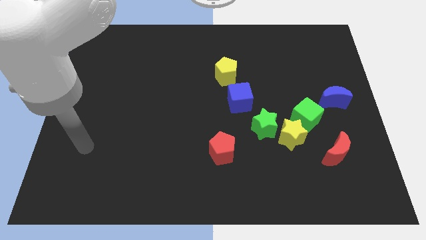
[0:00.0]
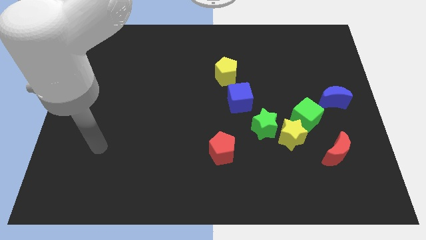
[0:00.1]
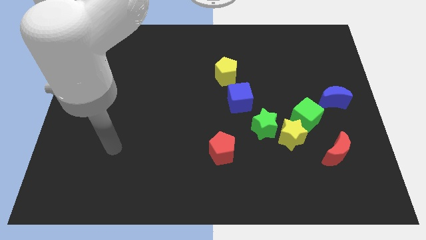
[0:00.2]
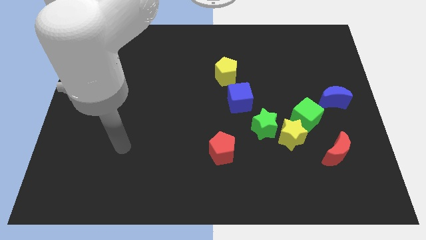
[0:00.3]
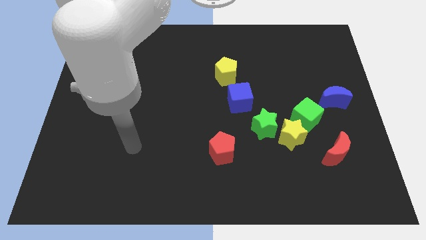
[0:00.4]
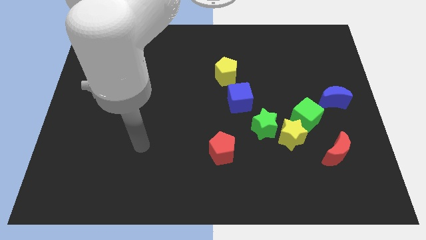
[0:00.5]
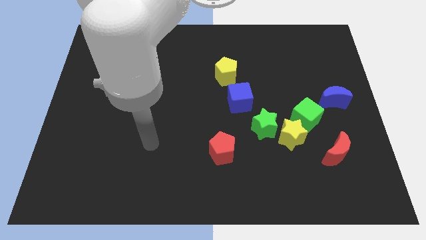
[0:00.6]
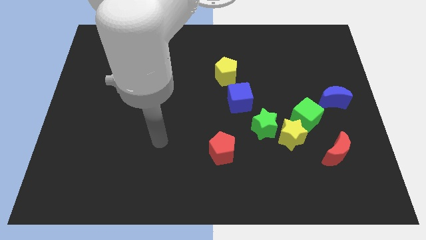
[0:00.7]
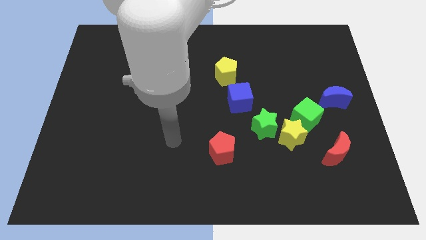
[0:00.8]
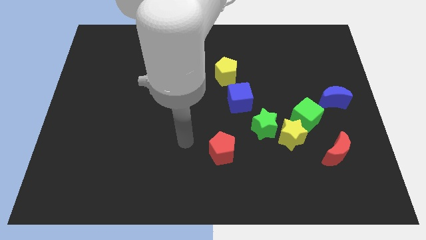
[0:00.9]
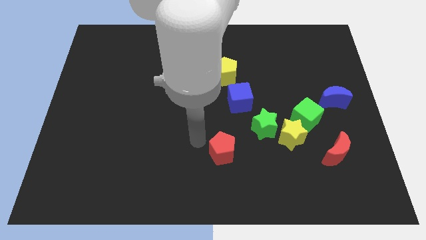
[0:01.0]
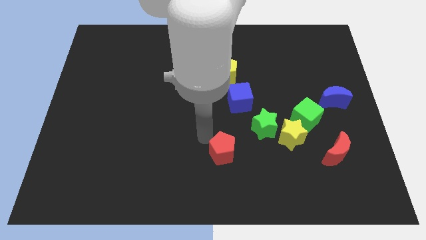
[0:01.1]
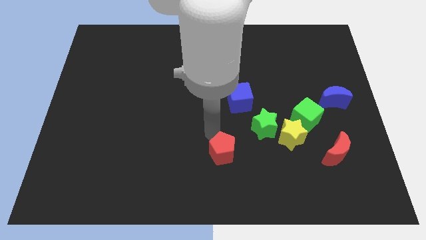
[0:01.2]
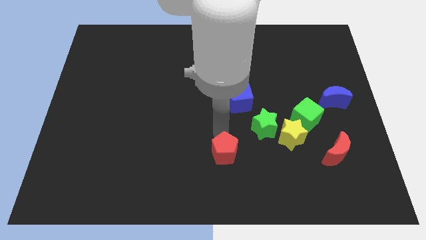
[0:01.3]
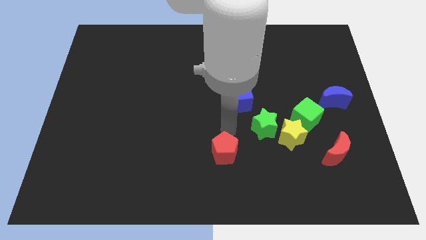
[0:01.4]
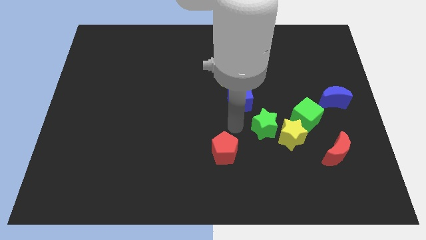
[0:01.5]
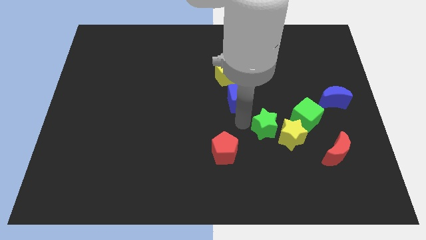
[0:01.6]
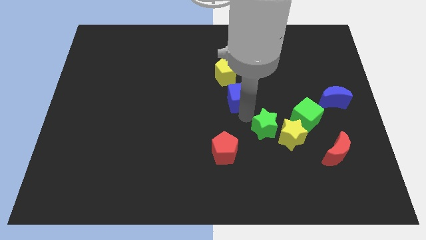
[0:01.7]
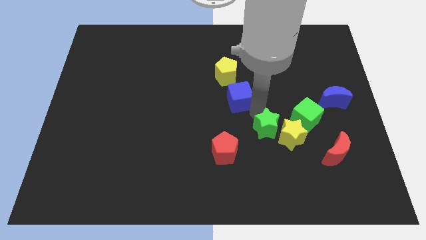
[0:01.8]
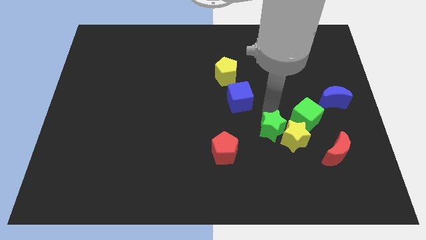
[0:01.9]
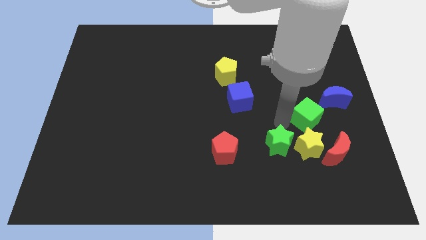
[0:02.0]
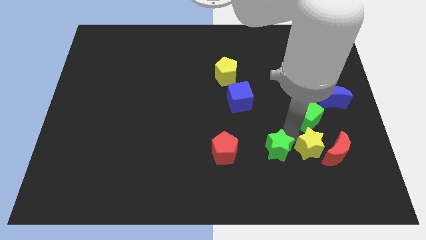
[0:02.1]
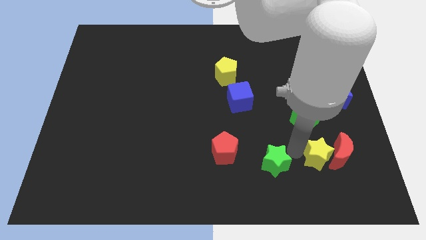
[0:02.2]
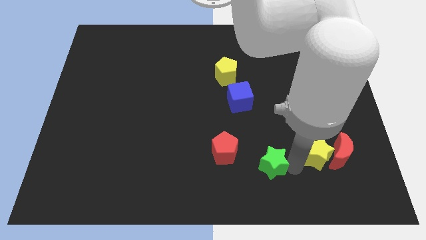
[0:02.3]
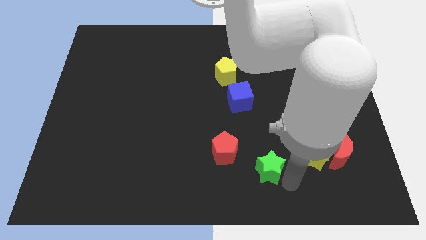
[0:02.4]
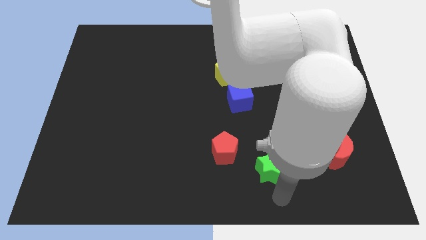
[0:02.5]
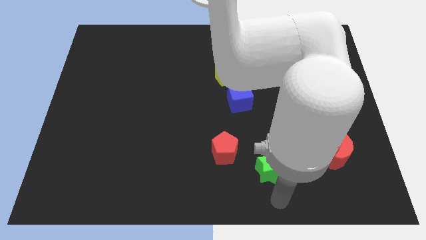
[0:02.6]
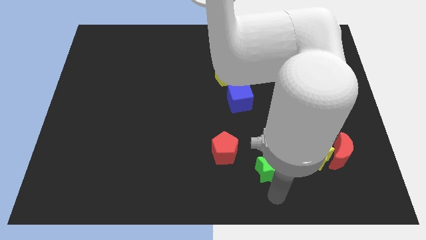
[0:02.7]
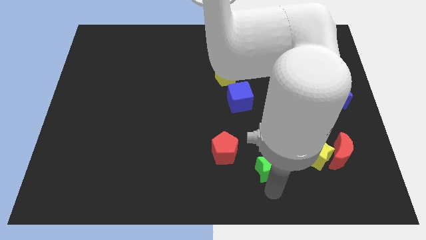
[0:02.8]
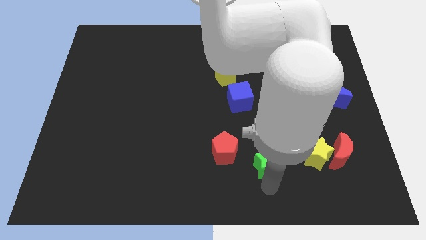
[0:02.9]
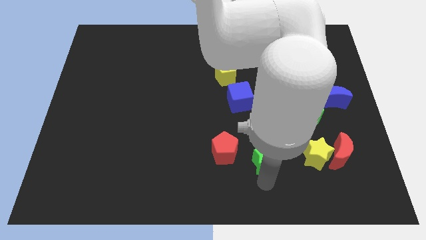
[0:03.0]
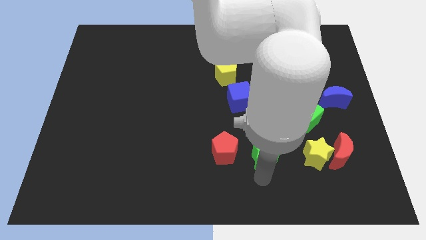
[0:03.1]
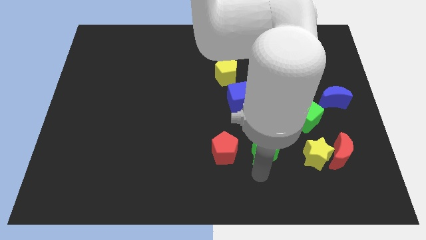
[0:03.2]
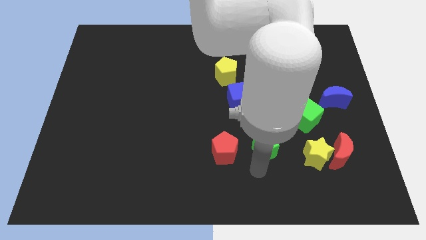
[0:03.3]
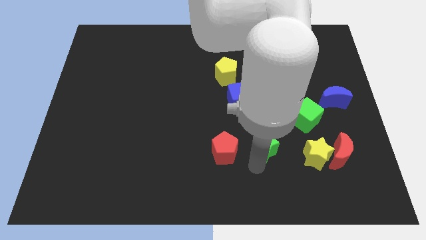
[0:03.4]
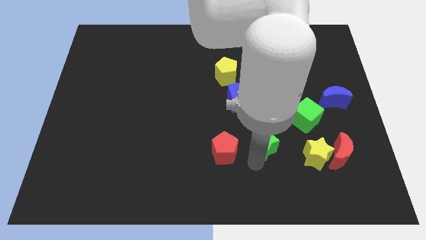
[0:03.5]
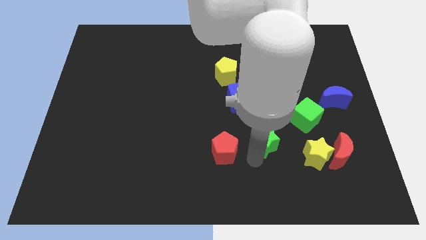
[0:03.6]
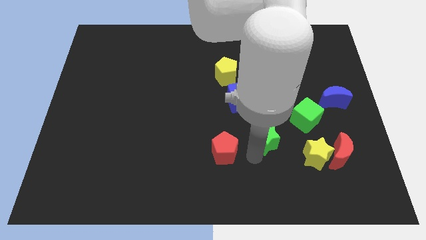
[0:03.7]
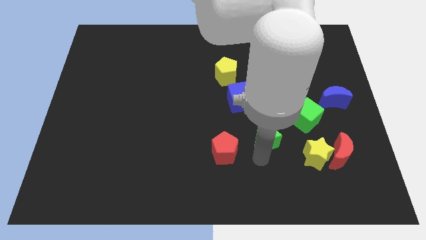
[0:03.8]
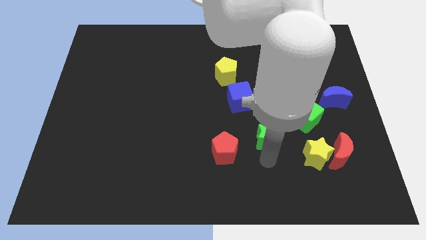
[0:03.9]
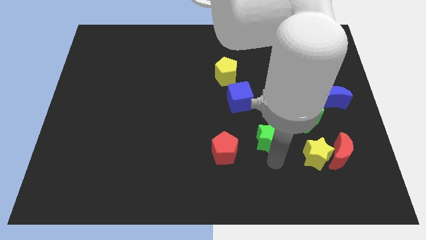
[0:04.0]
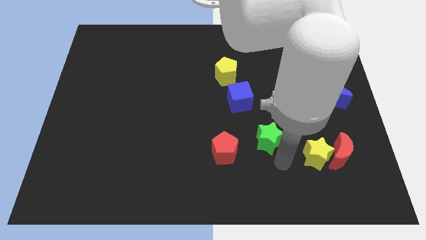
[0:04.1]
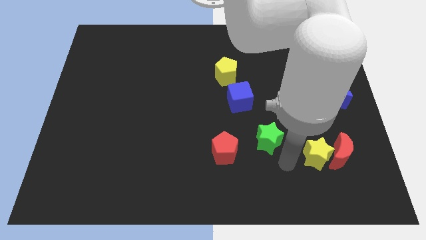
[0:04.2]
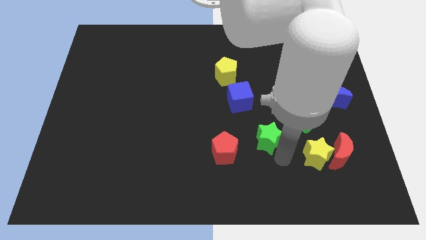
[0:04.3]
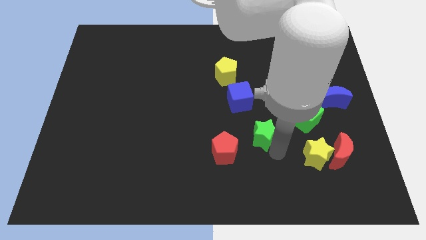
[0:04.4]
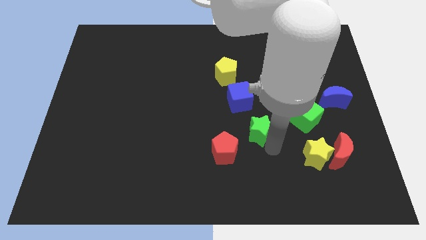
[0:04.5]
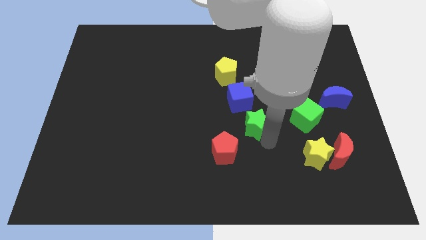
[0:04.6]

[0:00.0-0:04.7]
slide the green star to the center

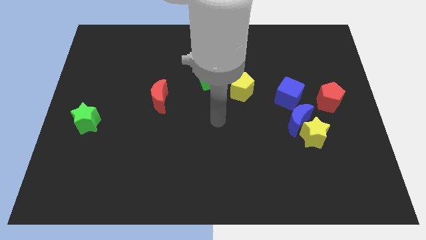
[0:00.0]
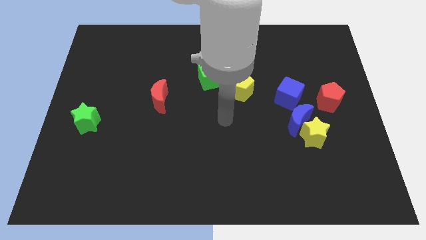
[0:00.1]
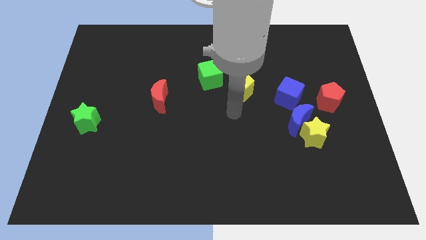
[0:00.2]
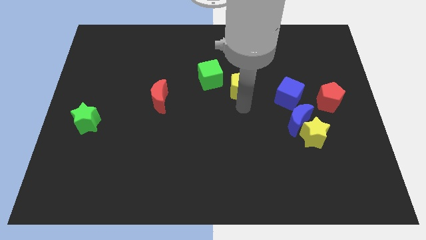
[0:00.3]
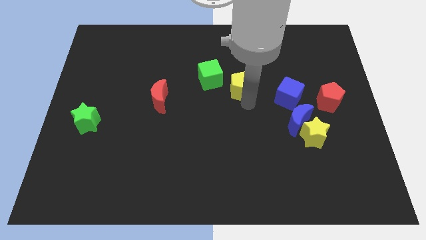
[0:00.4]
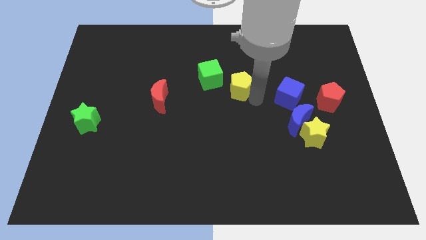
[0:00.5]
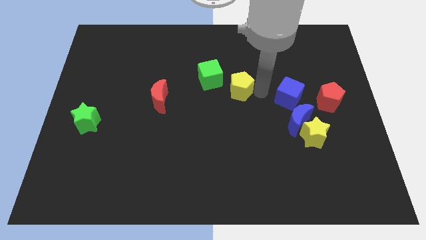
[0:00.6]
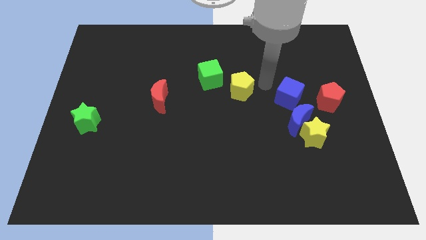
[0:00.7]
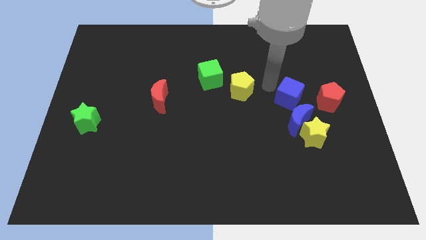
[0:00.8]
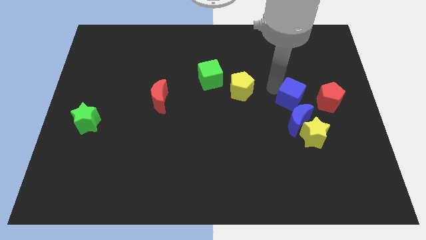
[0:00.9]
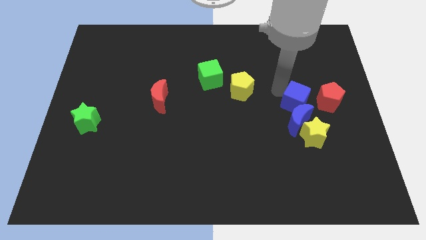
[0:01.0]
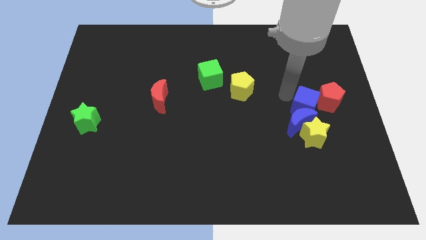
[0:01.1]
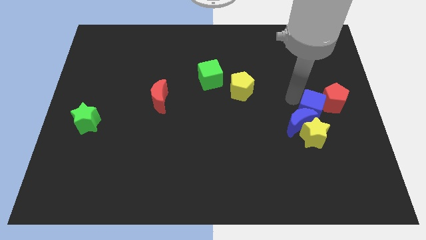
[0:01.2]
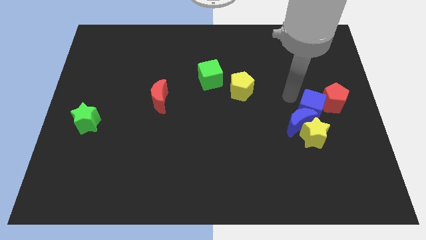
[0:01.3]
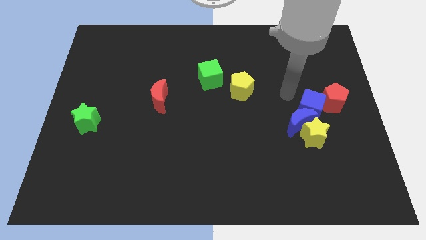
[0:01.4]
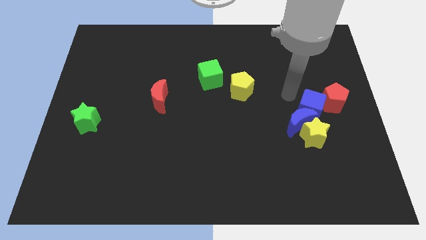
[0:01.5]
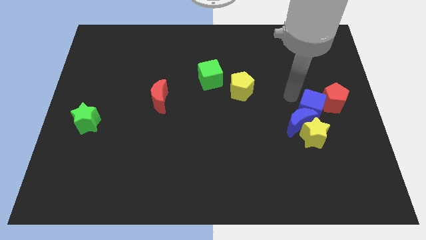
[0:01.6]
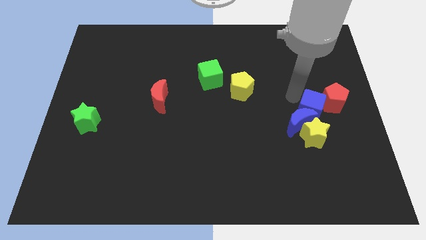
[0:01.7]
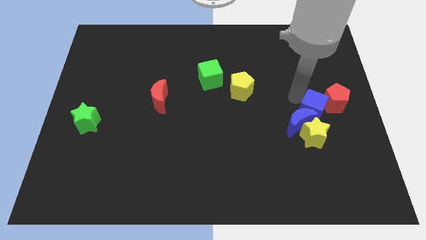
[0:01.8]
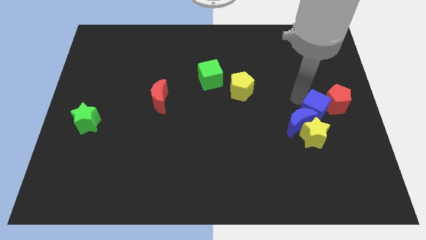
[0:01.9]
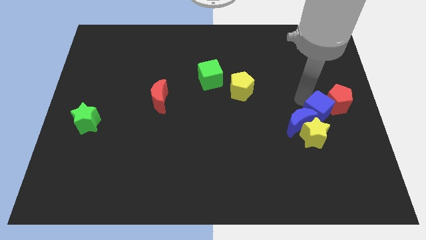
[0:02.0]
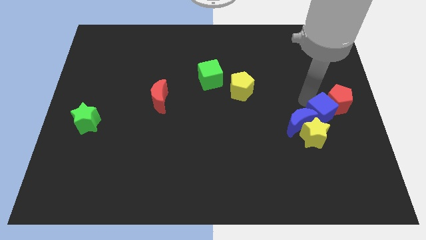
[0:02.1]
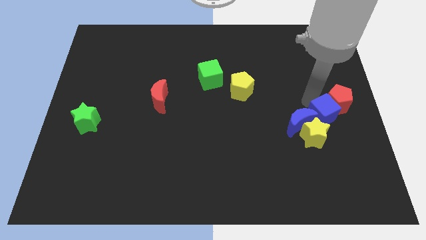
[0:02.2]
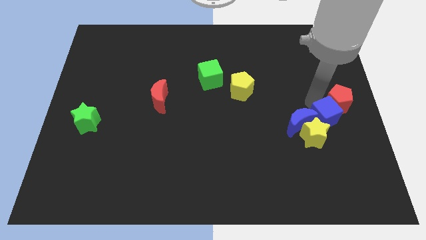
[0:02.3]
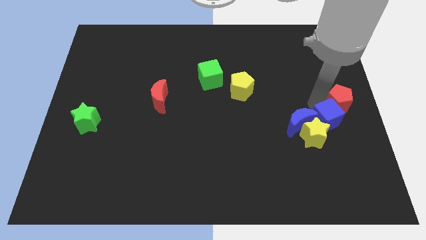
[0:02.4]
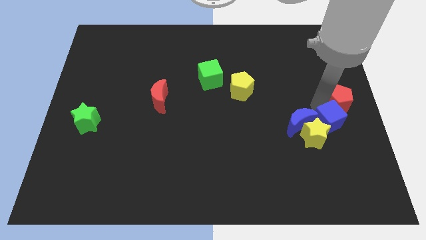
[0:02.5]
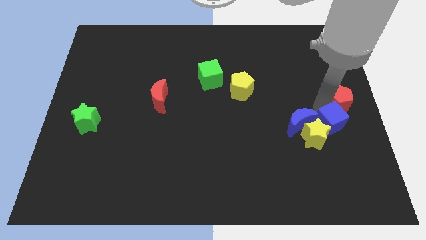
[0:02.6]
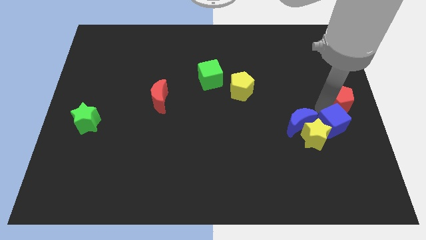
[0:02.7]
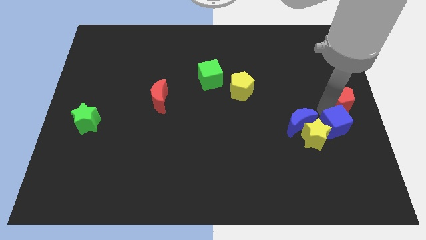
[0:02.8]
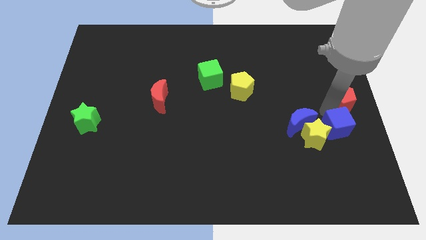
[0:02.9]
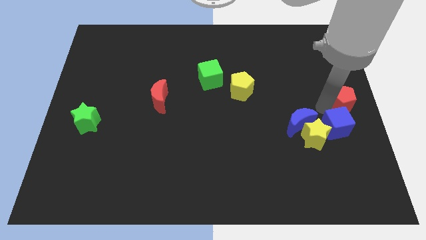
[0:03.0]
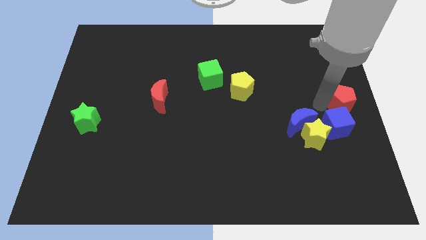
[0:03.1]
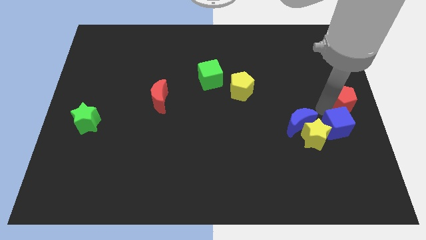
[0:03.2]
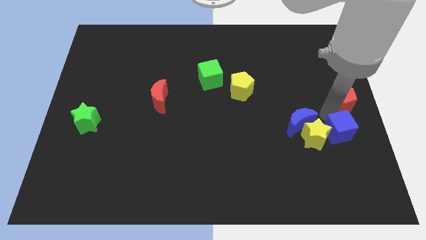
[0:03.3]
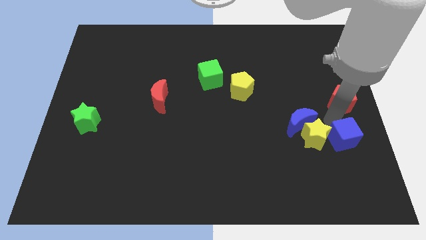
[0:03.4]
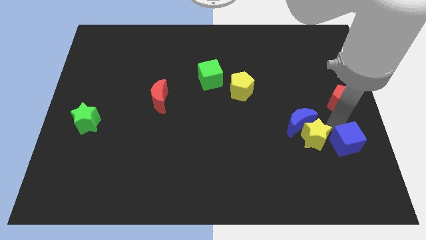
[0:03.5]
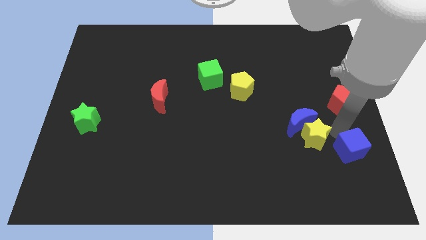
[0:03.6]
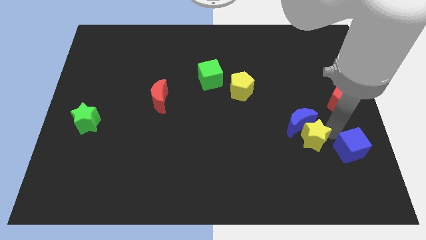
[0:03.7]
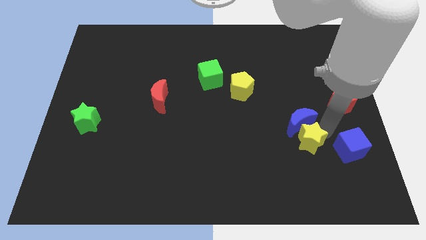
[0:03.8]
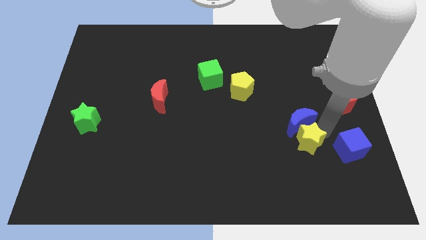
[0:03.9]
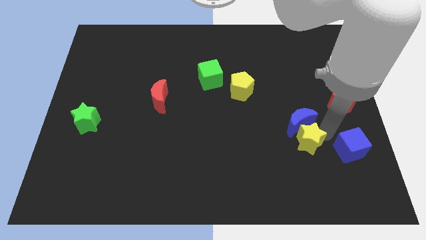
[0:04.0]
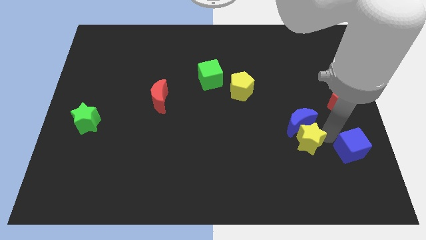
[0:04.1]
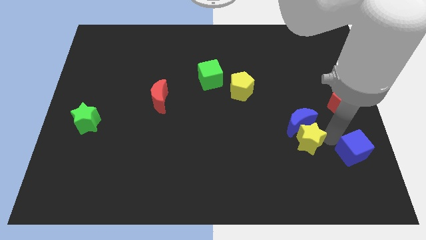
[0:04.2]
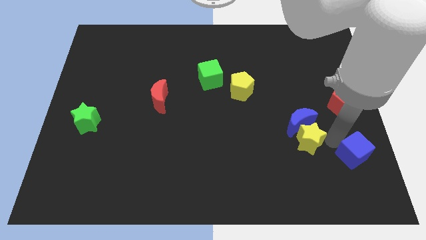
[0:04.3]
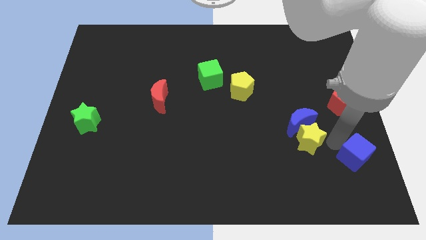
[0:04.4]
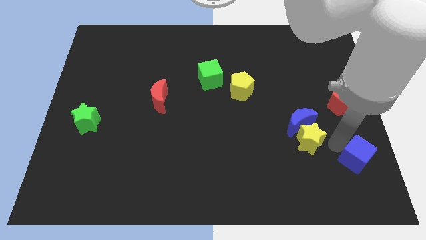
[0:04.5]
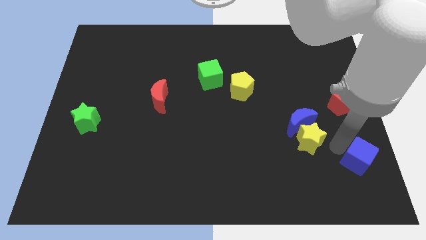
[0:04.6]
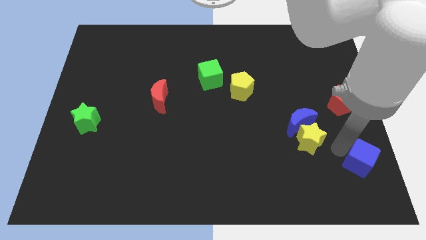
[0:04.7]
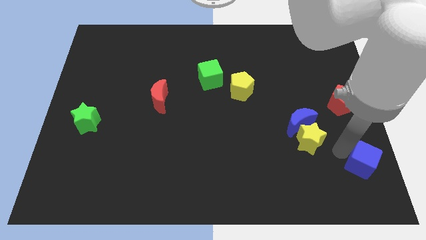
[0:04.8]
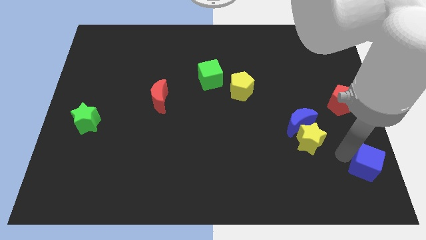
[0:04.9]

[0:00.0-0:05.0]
push the blue cube to the bottom right corner
